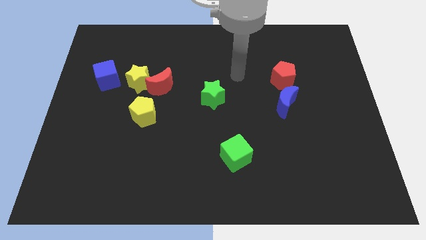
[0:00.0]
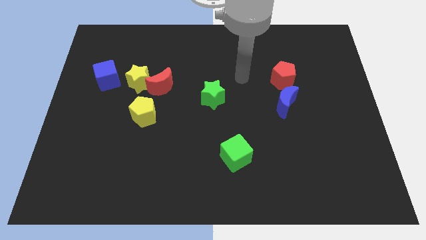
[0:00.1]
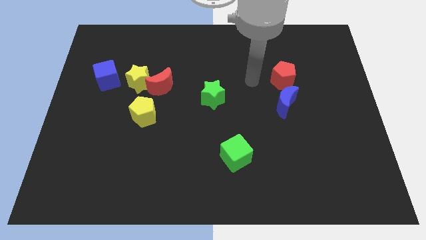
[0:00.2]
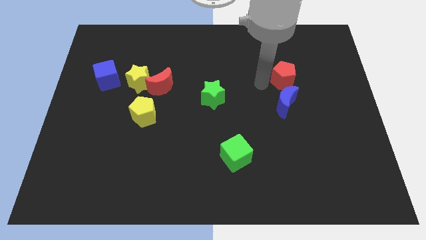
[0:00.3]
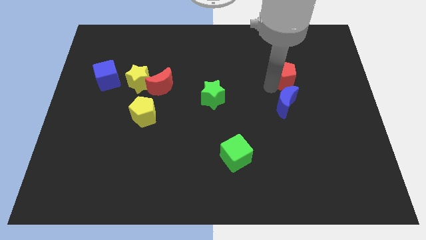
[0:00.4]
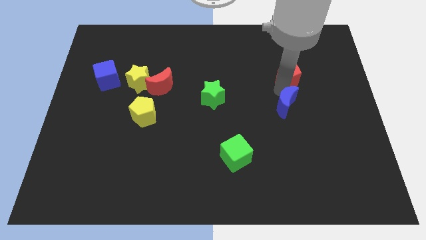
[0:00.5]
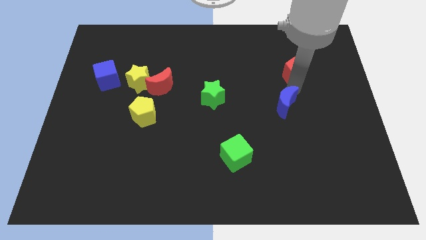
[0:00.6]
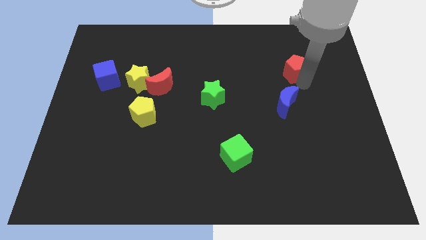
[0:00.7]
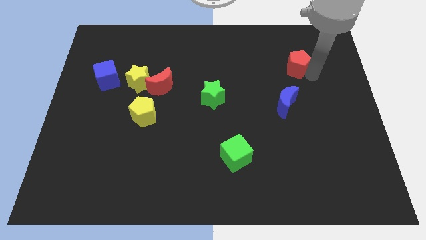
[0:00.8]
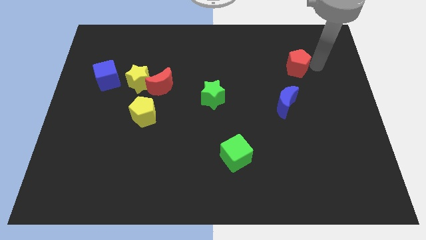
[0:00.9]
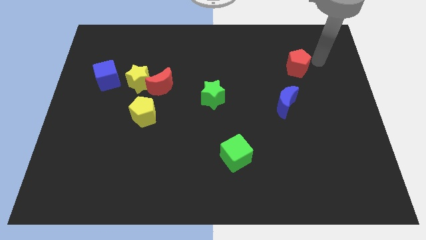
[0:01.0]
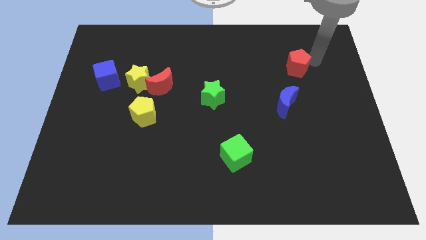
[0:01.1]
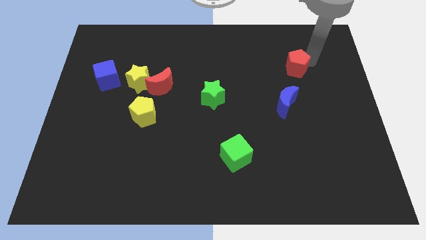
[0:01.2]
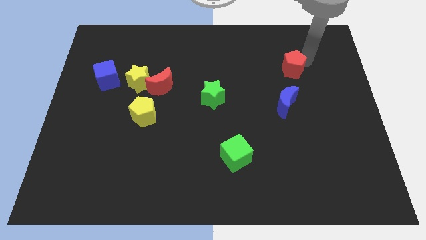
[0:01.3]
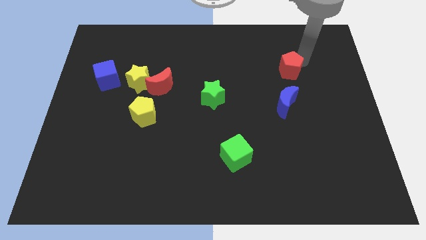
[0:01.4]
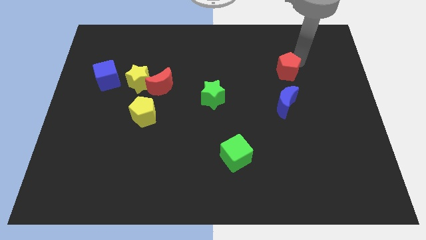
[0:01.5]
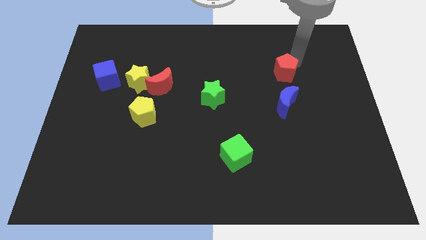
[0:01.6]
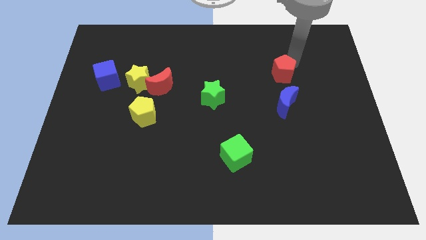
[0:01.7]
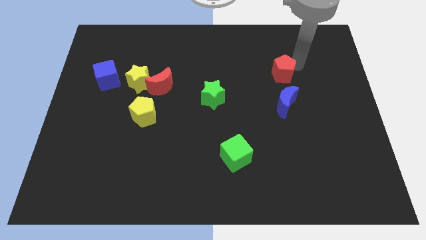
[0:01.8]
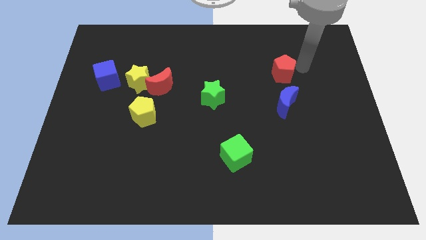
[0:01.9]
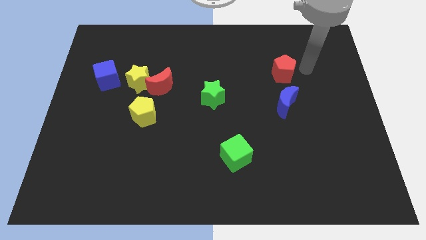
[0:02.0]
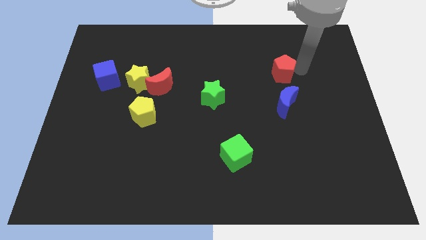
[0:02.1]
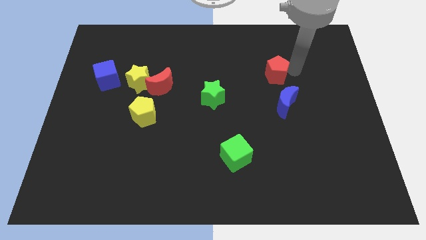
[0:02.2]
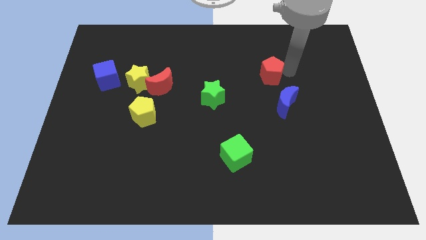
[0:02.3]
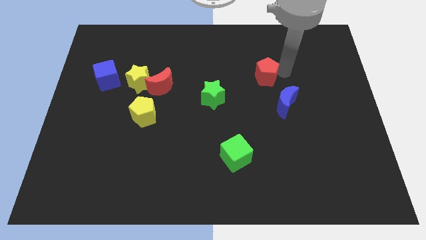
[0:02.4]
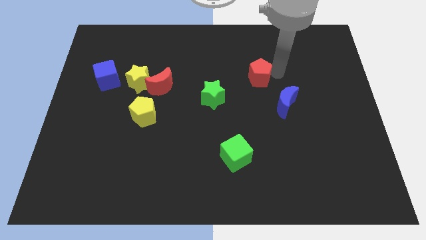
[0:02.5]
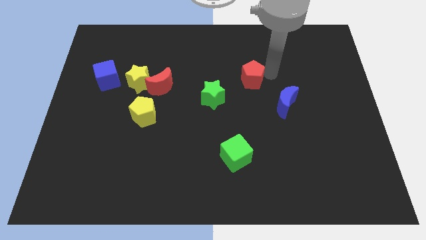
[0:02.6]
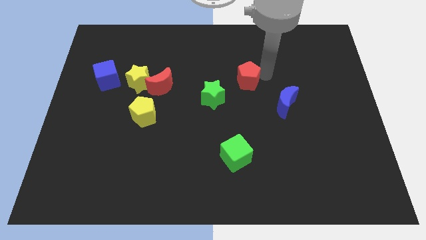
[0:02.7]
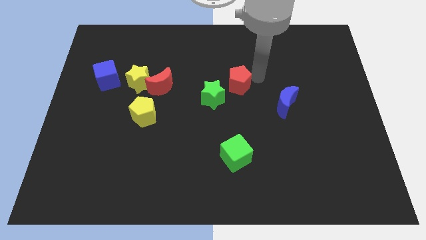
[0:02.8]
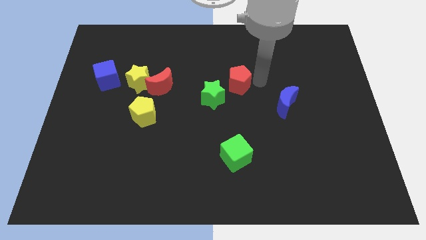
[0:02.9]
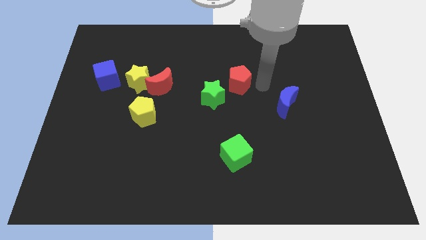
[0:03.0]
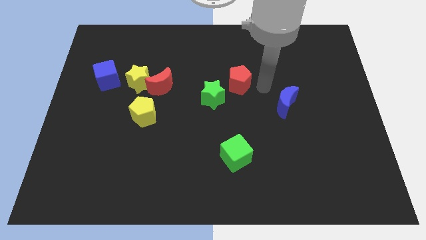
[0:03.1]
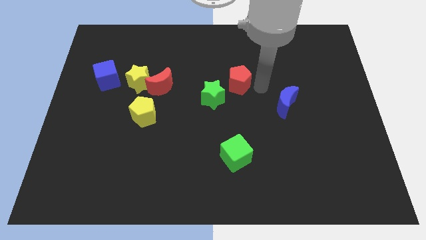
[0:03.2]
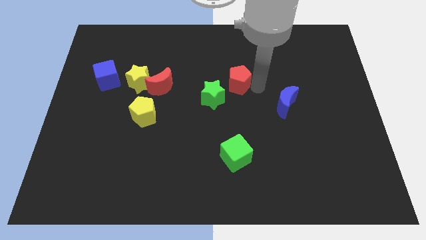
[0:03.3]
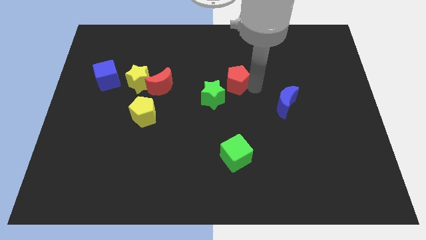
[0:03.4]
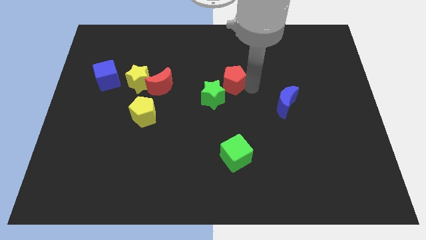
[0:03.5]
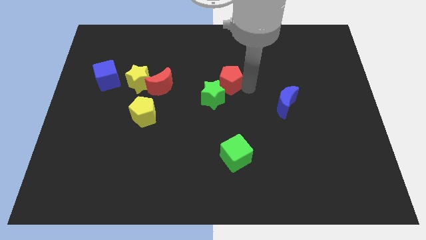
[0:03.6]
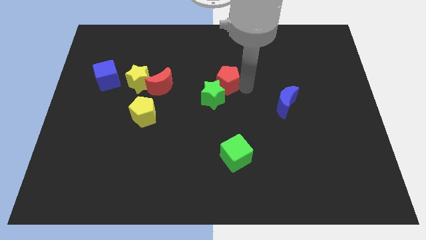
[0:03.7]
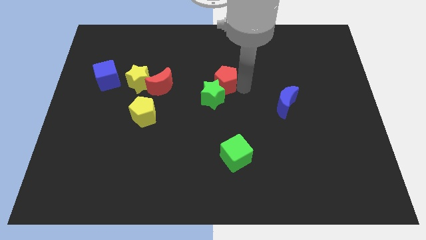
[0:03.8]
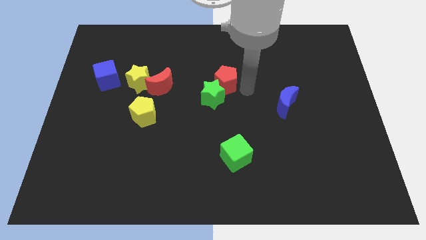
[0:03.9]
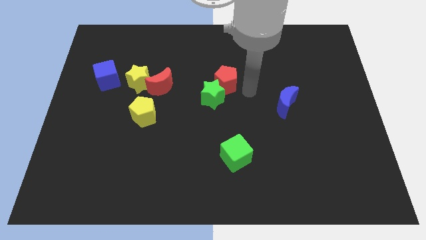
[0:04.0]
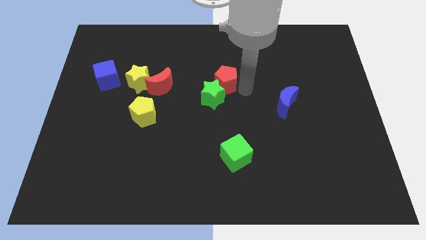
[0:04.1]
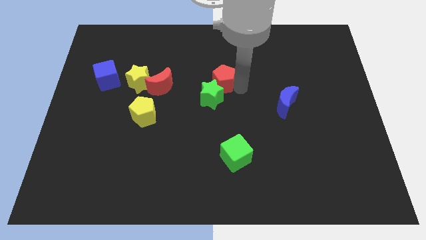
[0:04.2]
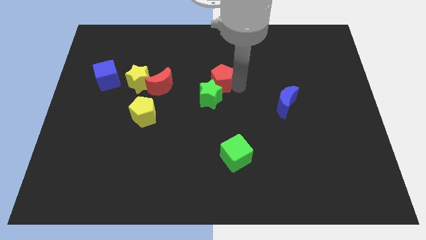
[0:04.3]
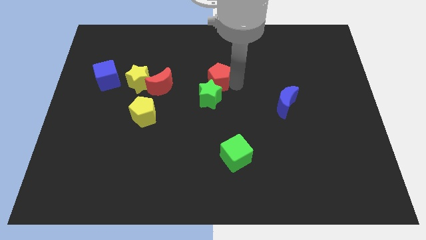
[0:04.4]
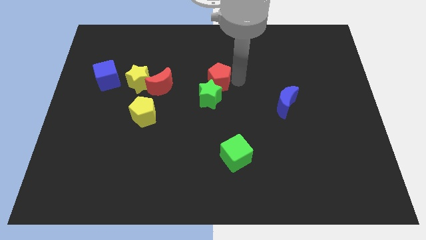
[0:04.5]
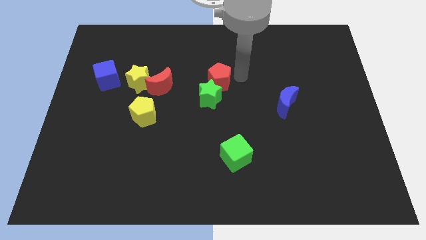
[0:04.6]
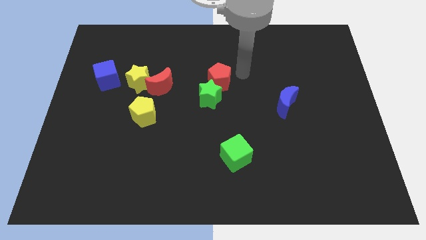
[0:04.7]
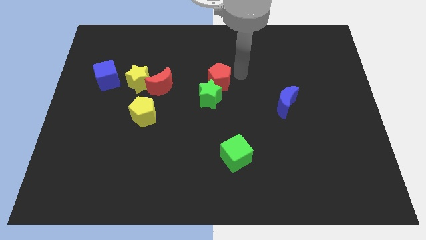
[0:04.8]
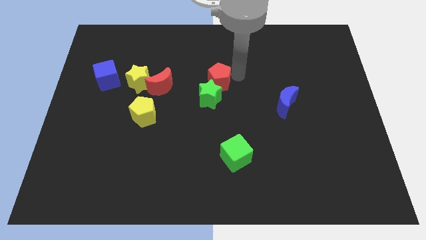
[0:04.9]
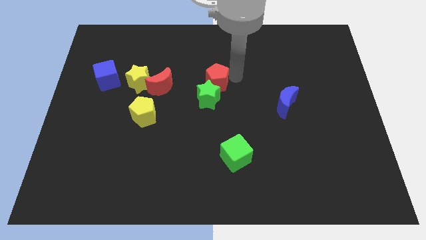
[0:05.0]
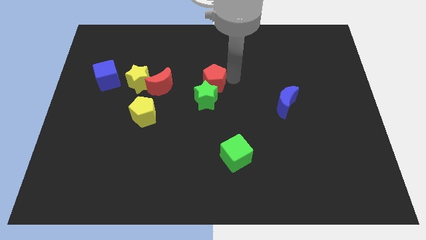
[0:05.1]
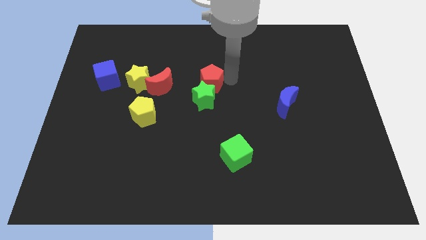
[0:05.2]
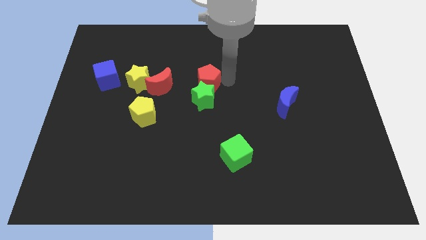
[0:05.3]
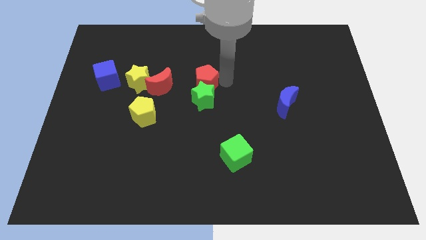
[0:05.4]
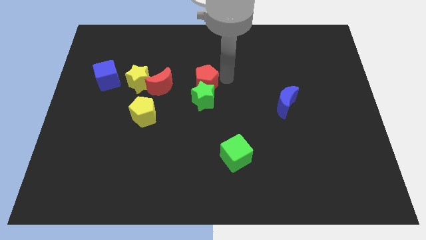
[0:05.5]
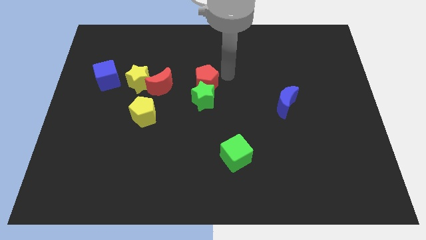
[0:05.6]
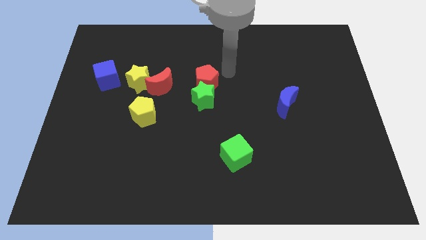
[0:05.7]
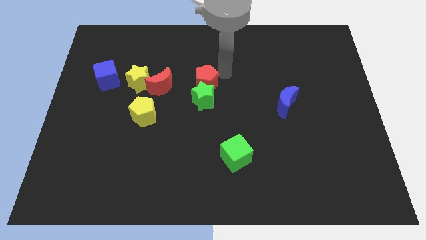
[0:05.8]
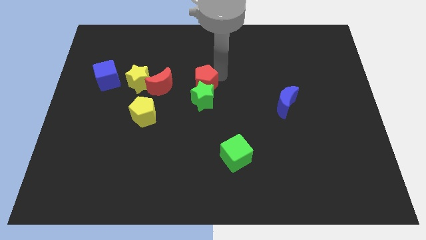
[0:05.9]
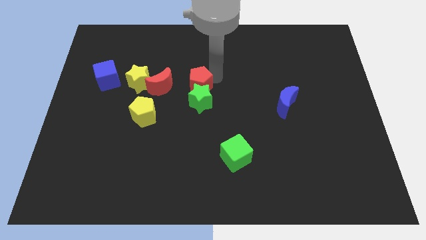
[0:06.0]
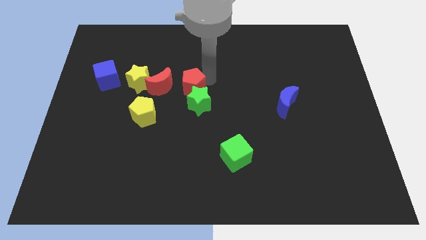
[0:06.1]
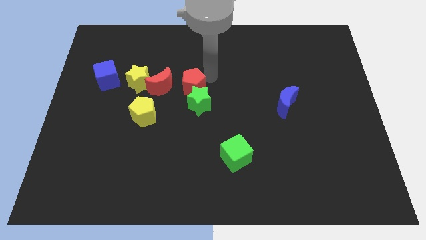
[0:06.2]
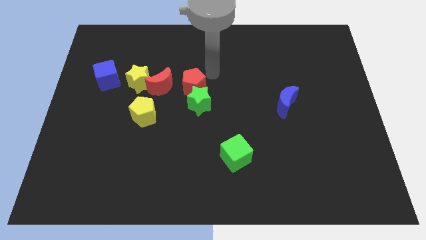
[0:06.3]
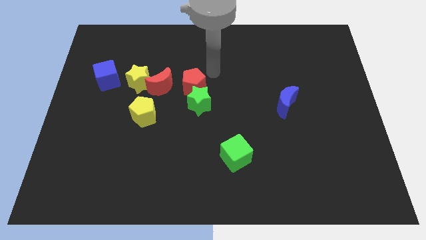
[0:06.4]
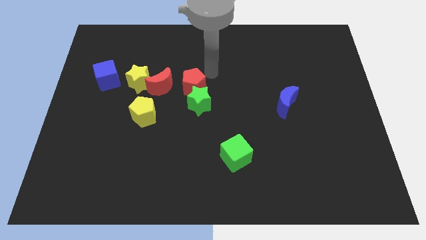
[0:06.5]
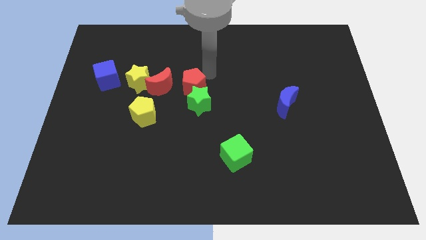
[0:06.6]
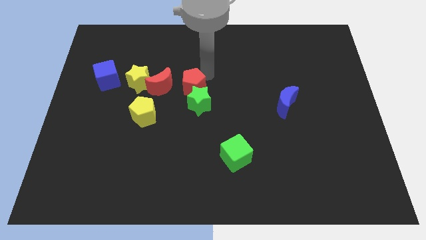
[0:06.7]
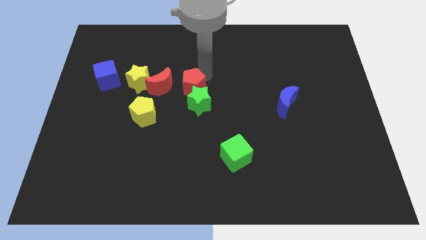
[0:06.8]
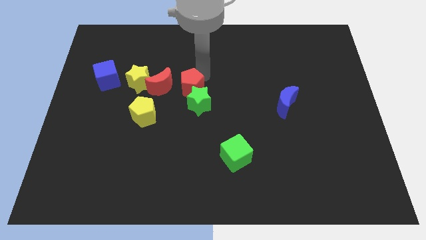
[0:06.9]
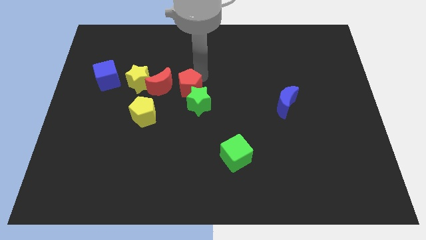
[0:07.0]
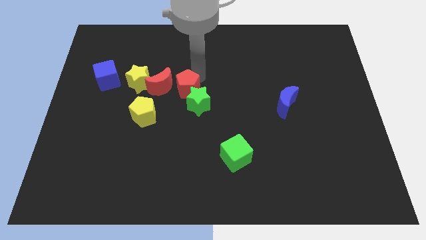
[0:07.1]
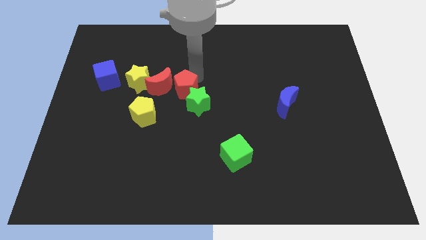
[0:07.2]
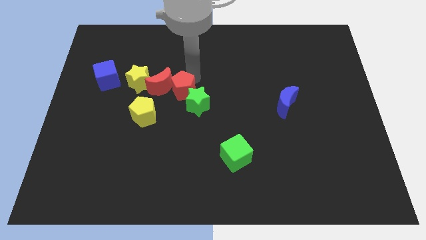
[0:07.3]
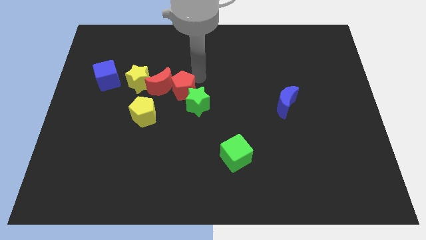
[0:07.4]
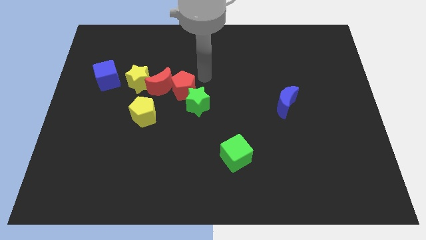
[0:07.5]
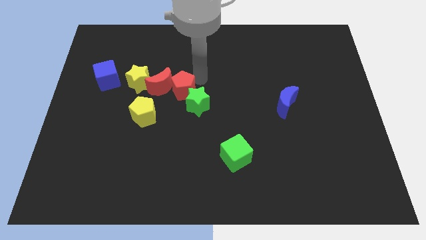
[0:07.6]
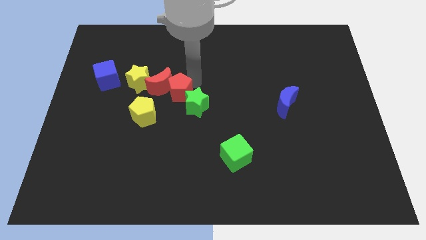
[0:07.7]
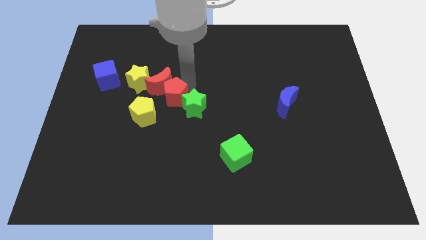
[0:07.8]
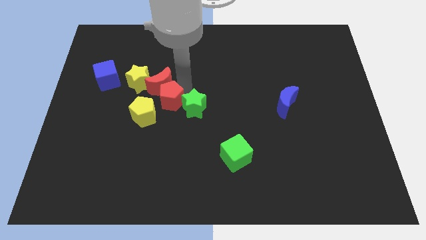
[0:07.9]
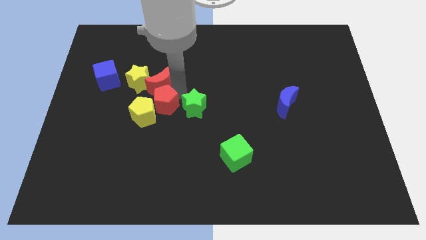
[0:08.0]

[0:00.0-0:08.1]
slide the red pentagon next to the yellow pentagon
